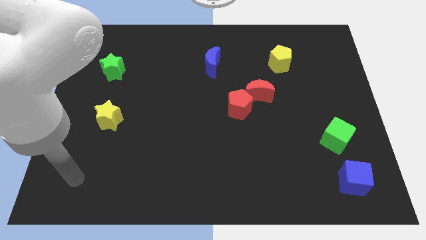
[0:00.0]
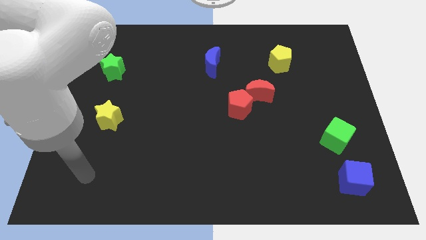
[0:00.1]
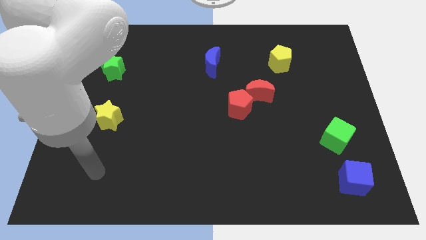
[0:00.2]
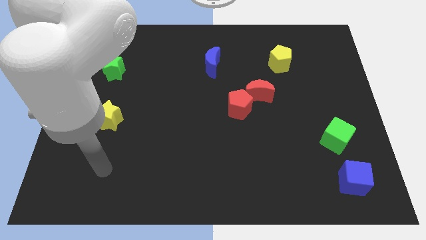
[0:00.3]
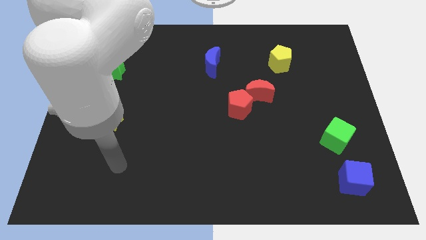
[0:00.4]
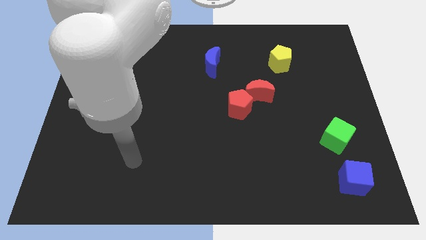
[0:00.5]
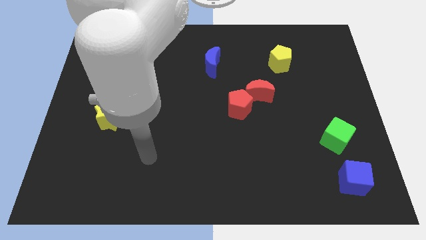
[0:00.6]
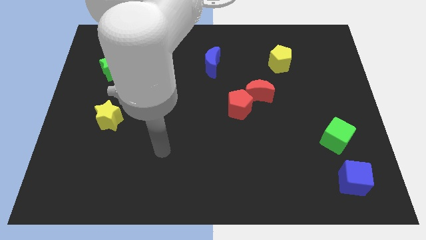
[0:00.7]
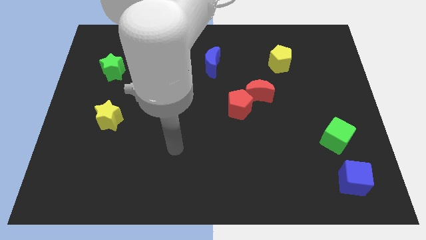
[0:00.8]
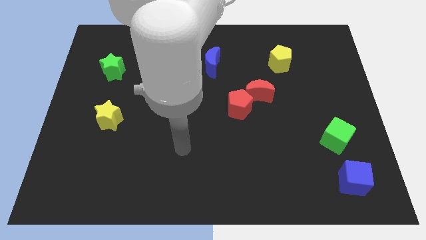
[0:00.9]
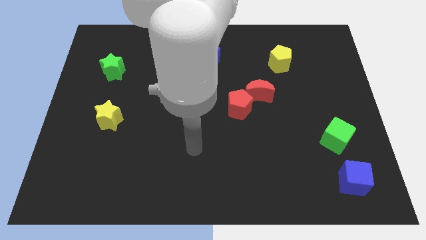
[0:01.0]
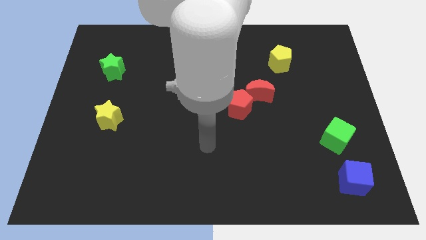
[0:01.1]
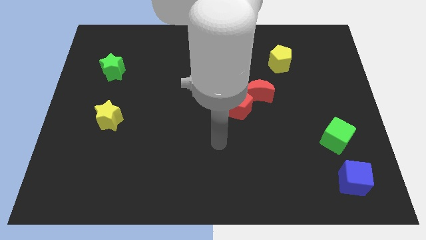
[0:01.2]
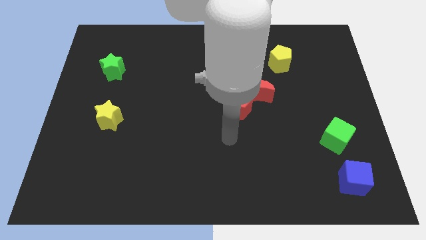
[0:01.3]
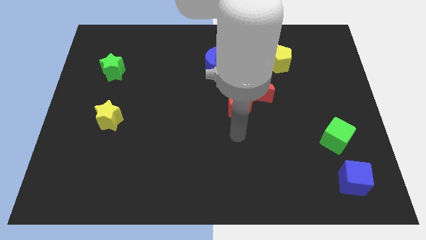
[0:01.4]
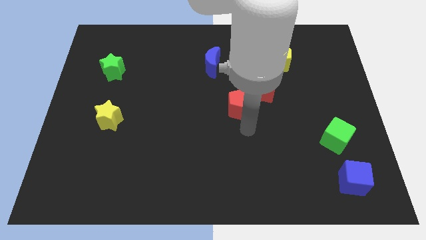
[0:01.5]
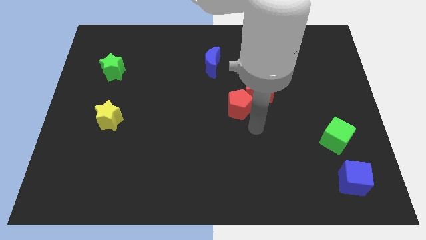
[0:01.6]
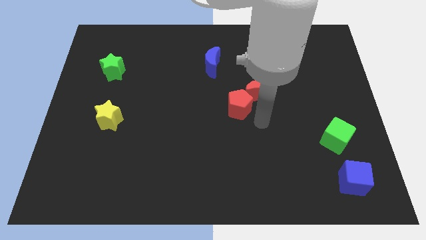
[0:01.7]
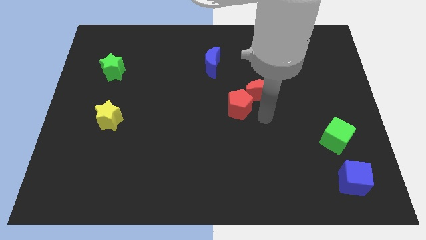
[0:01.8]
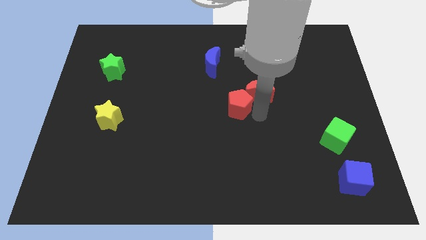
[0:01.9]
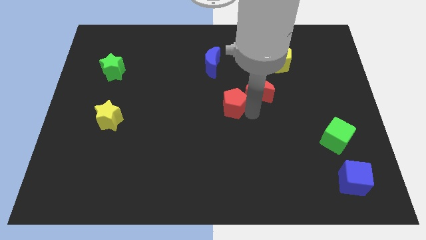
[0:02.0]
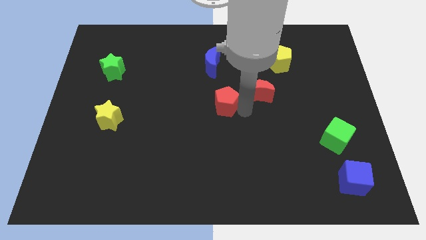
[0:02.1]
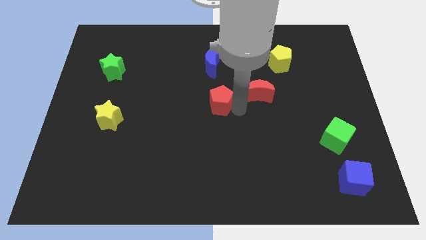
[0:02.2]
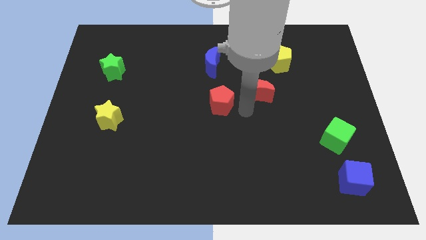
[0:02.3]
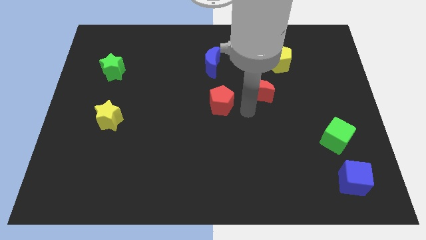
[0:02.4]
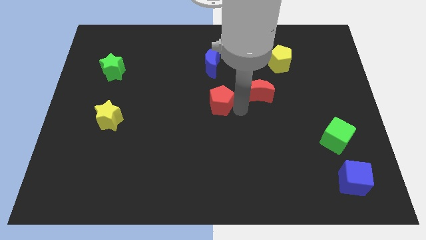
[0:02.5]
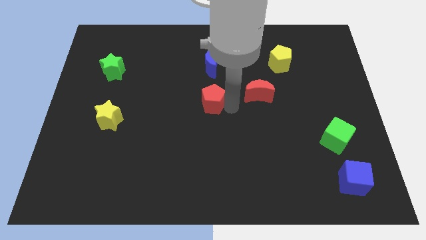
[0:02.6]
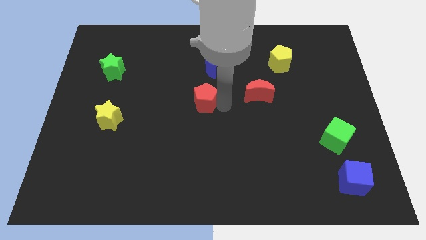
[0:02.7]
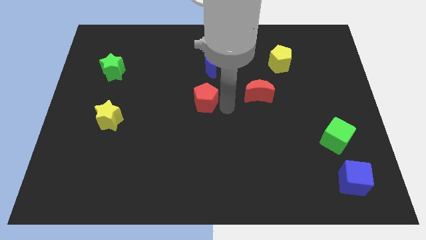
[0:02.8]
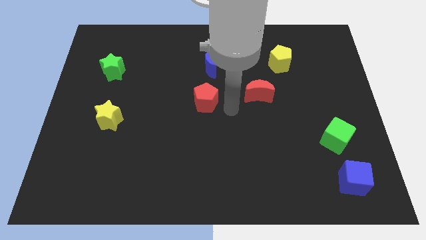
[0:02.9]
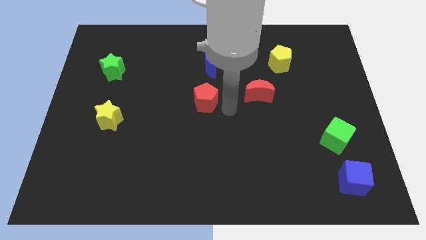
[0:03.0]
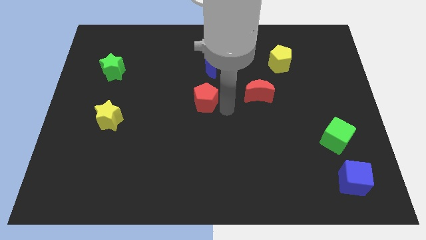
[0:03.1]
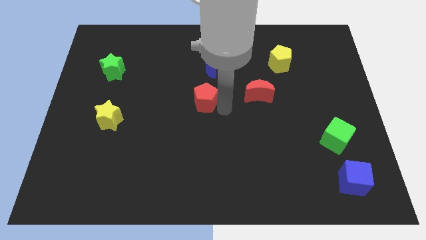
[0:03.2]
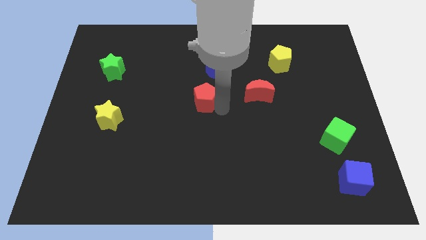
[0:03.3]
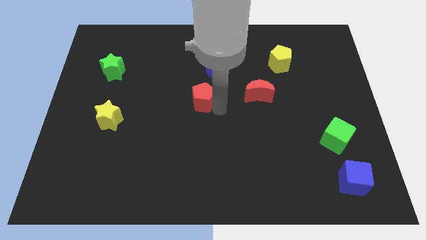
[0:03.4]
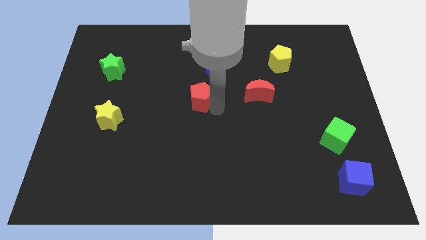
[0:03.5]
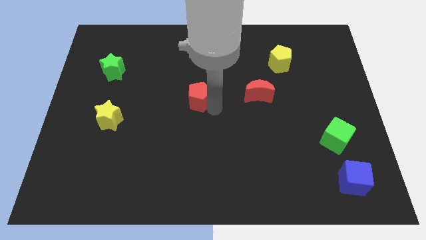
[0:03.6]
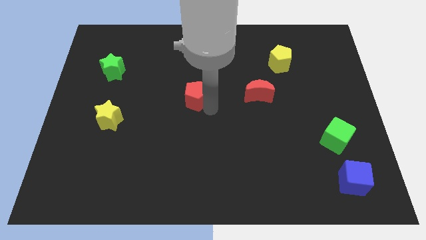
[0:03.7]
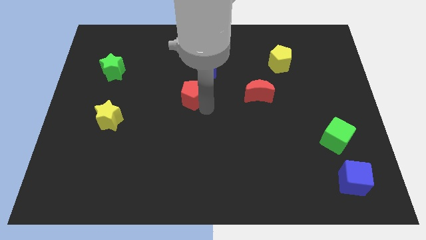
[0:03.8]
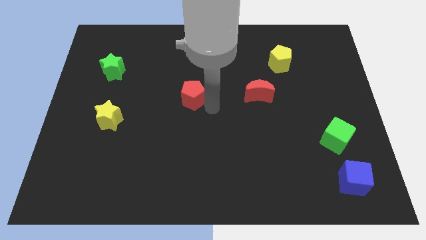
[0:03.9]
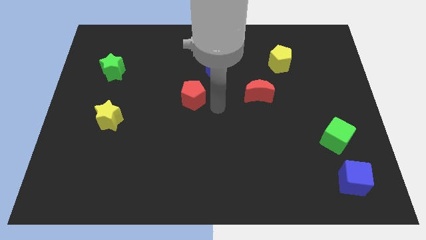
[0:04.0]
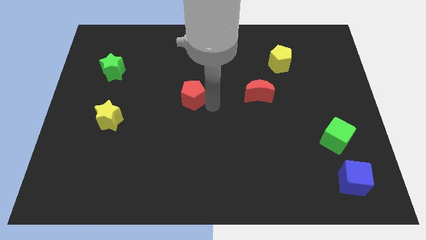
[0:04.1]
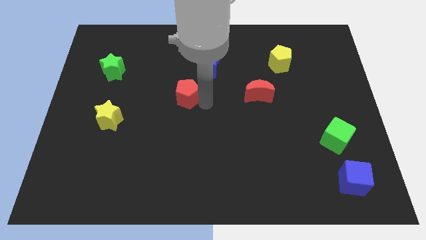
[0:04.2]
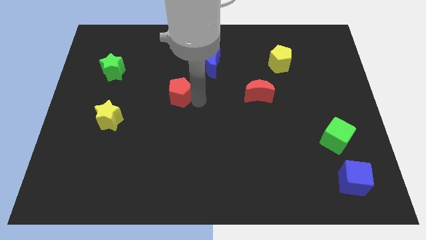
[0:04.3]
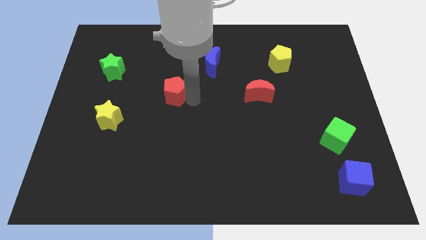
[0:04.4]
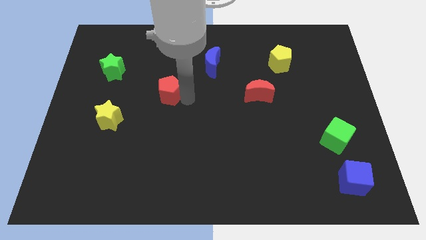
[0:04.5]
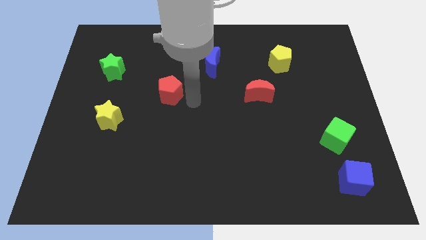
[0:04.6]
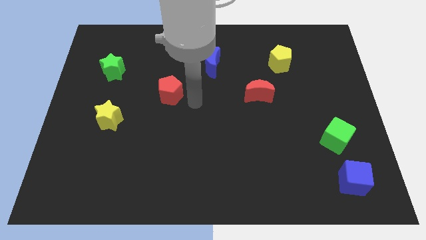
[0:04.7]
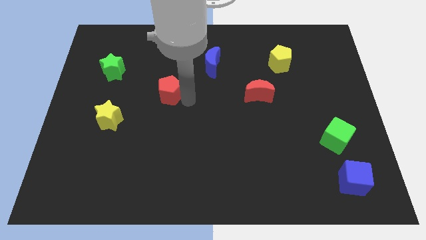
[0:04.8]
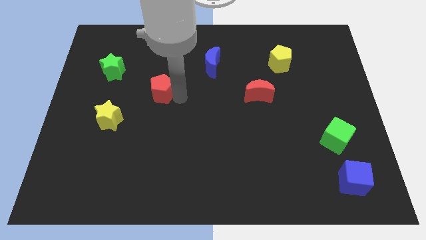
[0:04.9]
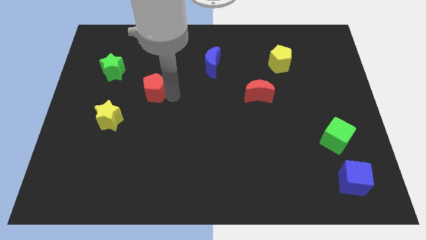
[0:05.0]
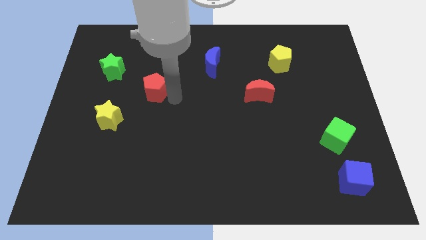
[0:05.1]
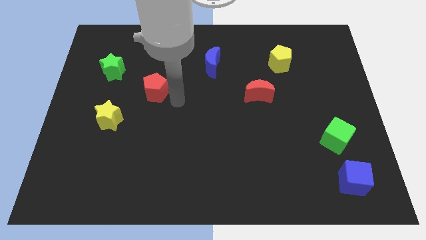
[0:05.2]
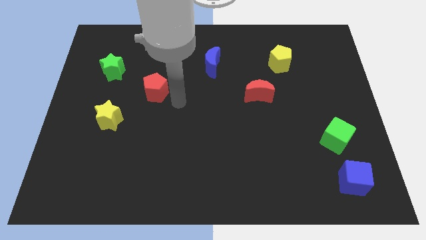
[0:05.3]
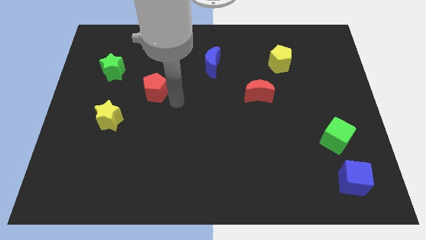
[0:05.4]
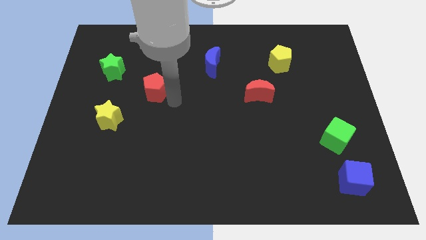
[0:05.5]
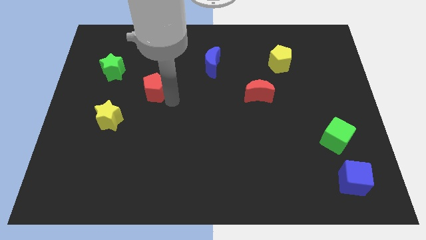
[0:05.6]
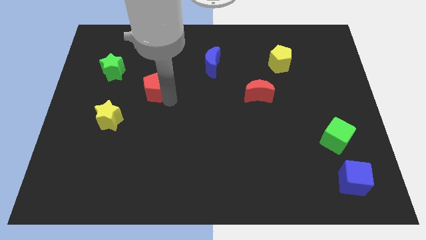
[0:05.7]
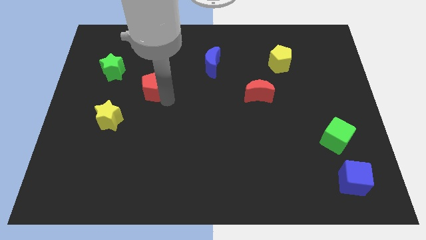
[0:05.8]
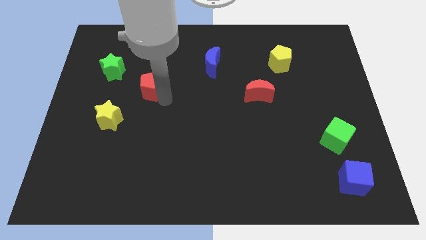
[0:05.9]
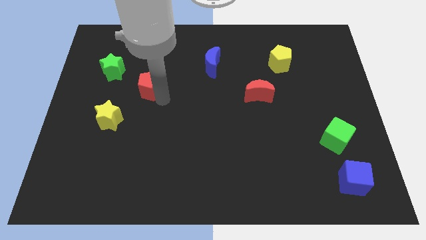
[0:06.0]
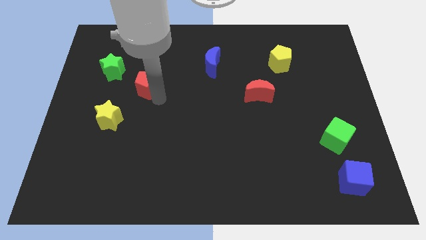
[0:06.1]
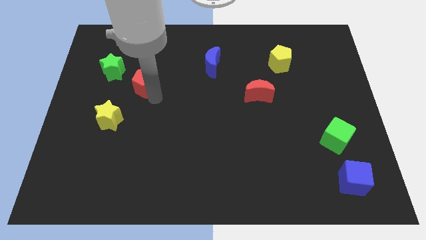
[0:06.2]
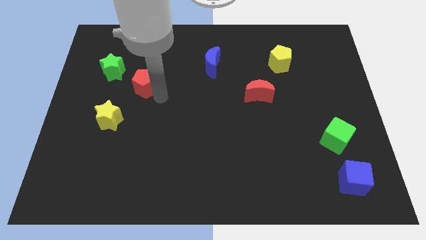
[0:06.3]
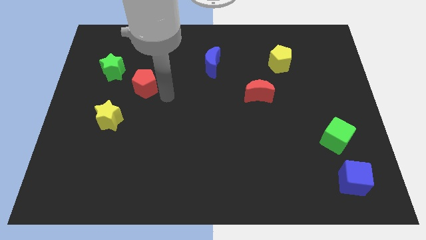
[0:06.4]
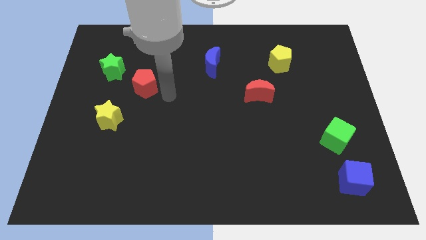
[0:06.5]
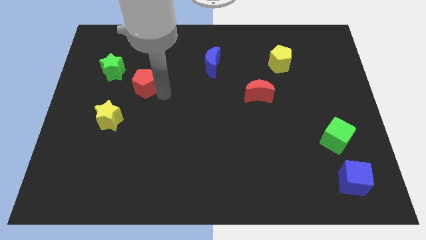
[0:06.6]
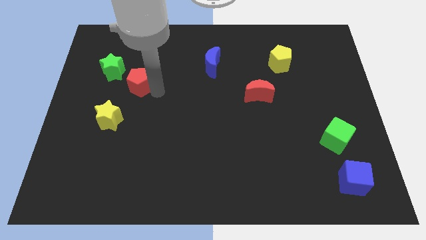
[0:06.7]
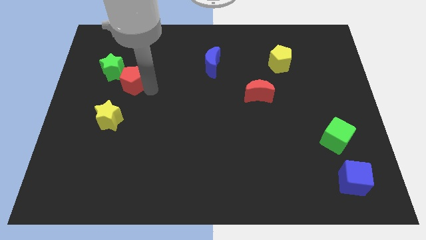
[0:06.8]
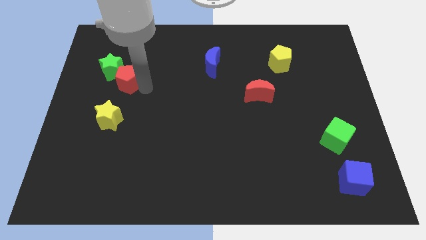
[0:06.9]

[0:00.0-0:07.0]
push the red pentagon towards the green star
